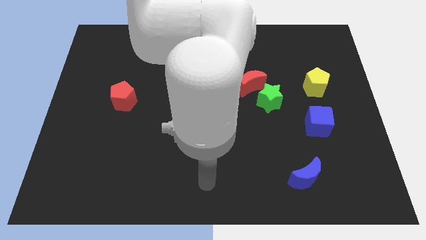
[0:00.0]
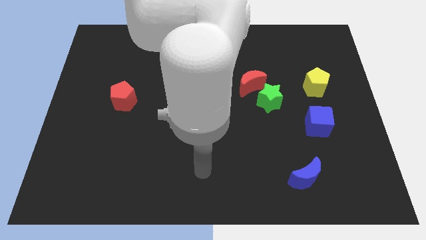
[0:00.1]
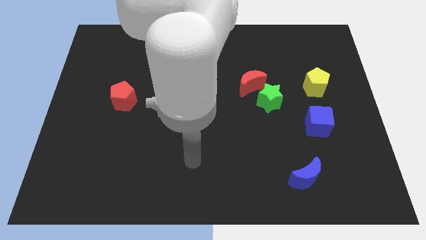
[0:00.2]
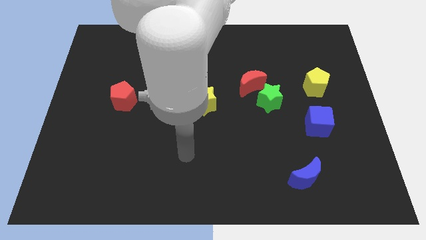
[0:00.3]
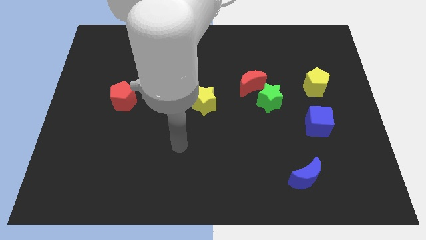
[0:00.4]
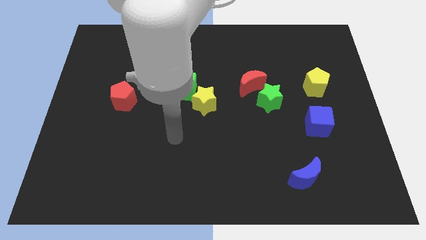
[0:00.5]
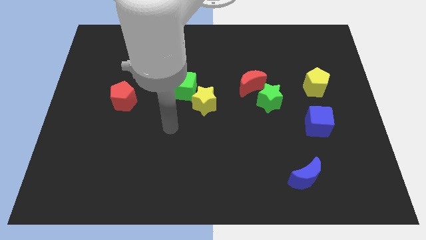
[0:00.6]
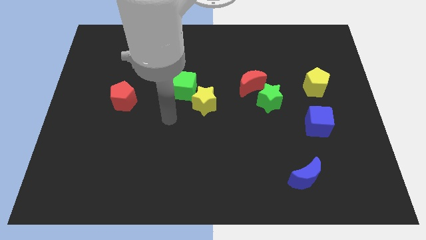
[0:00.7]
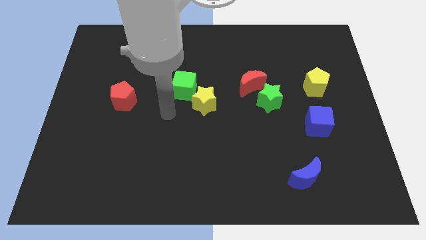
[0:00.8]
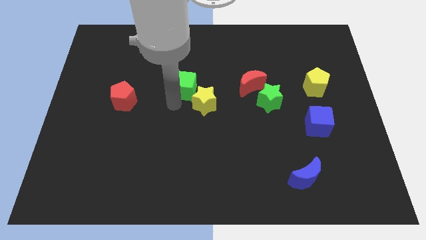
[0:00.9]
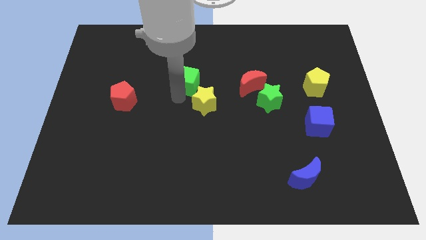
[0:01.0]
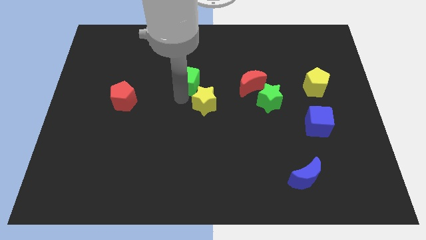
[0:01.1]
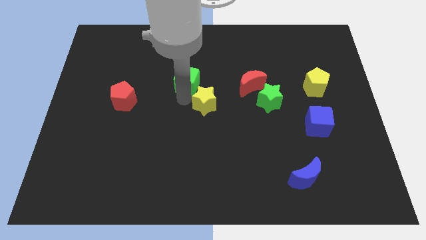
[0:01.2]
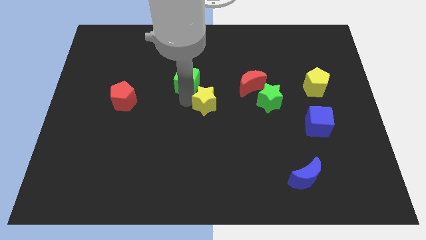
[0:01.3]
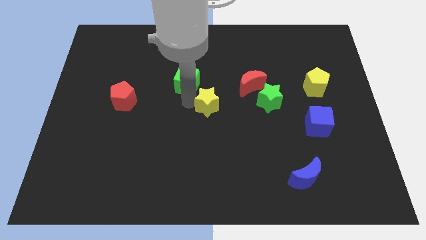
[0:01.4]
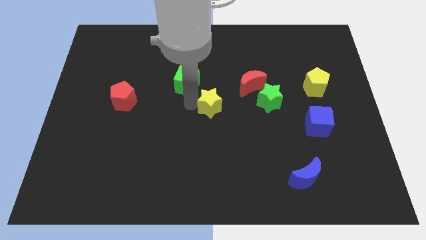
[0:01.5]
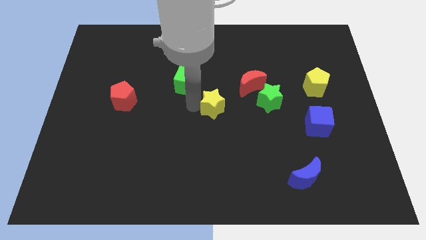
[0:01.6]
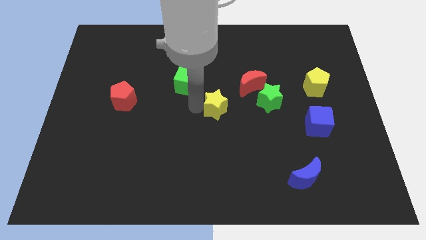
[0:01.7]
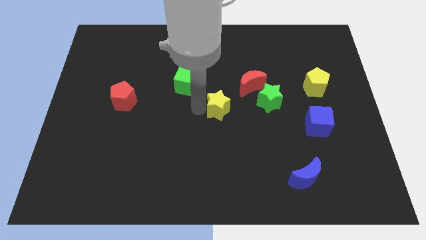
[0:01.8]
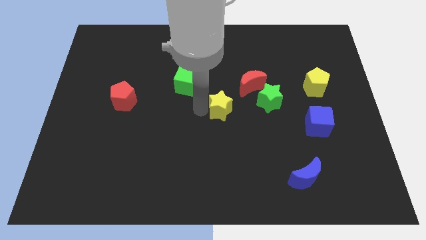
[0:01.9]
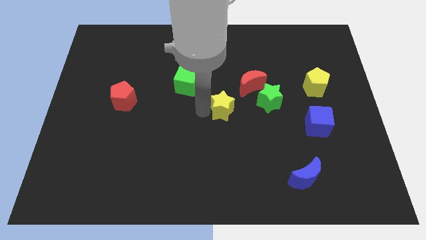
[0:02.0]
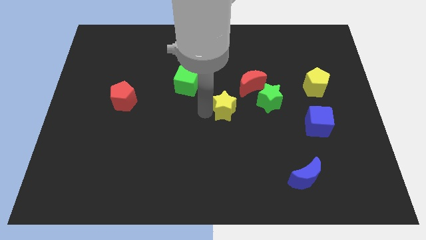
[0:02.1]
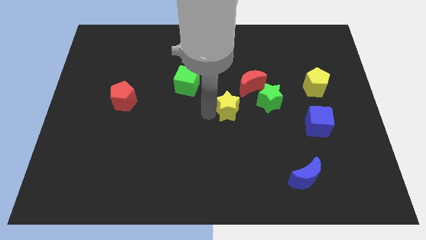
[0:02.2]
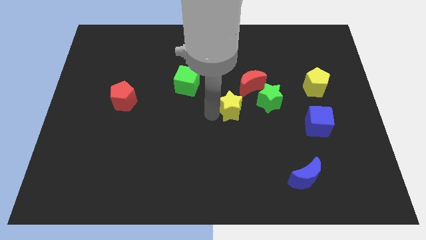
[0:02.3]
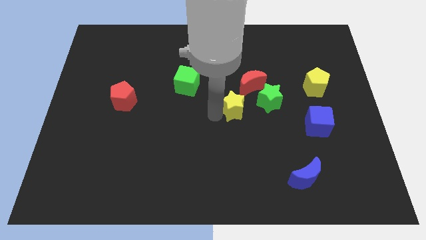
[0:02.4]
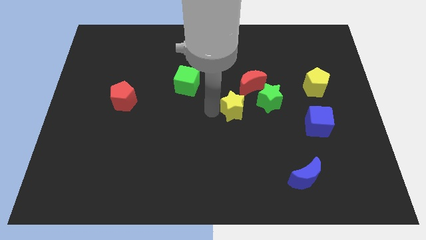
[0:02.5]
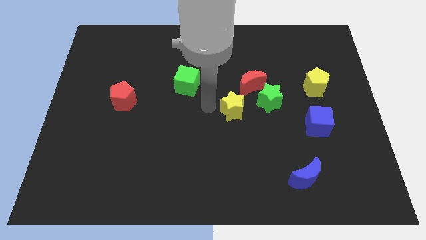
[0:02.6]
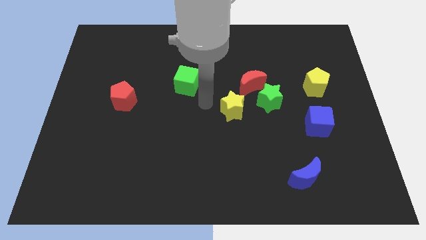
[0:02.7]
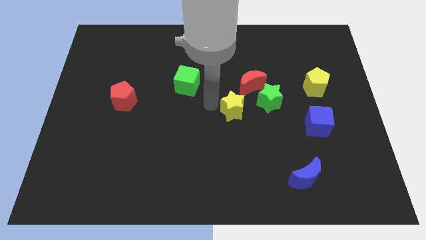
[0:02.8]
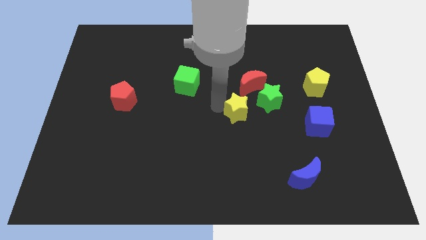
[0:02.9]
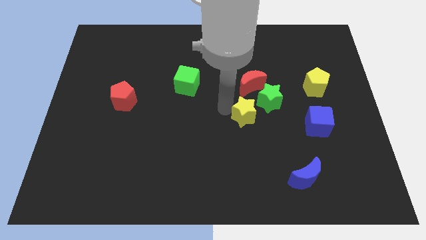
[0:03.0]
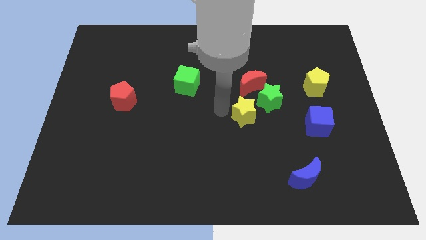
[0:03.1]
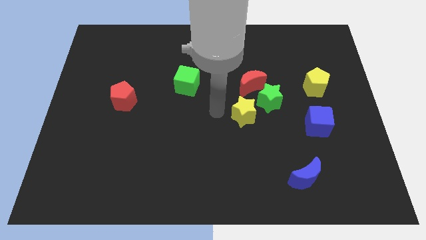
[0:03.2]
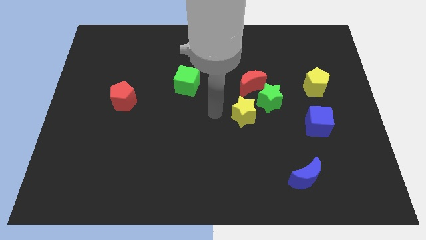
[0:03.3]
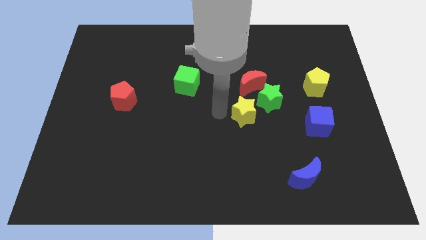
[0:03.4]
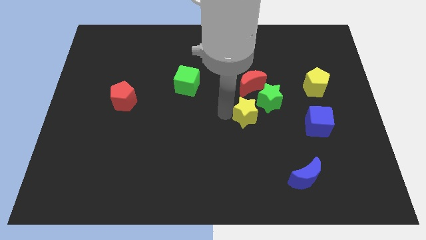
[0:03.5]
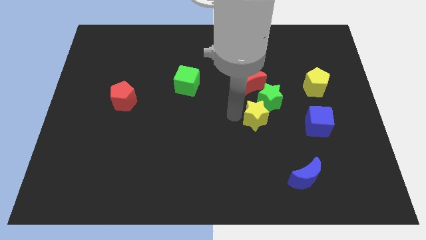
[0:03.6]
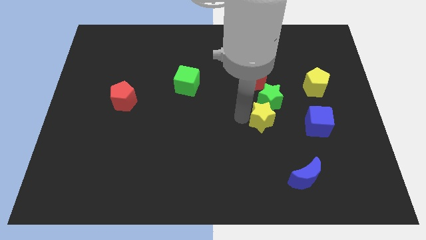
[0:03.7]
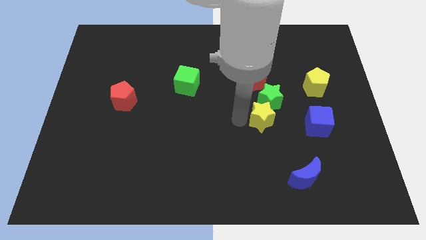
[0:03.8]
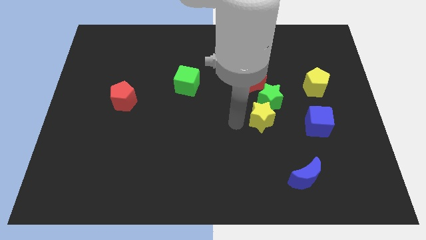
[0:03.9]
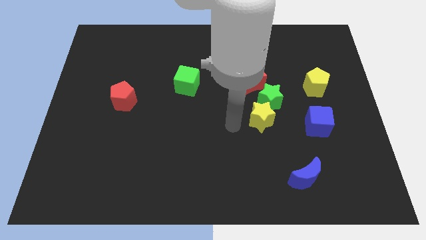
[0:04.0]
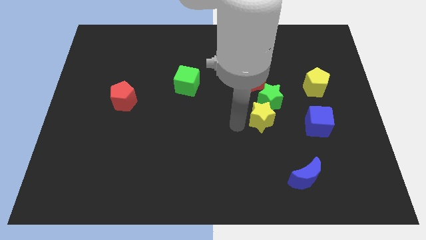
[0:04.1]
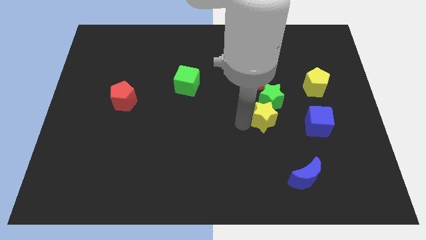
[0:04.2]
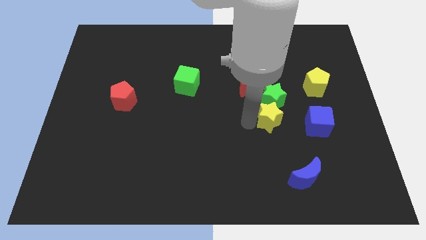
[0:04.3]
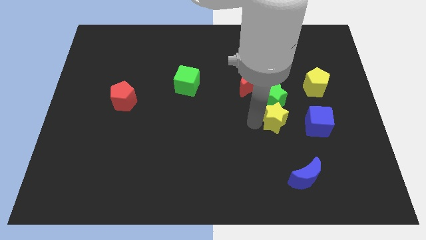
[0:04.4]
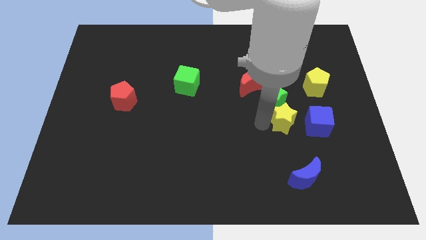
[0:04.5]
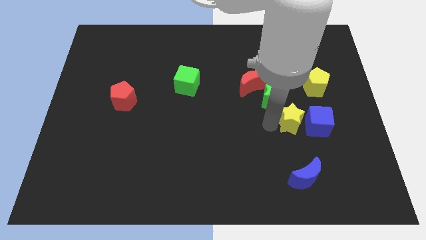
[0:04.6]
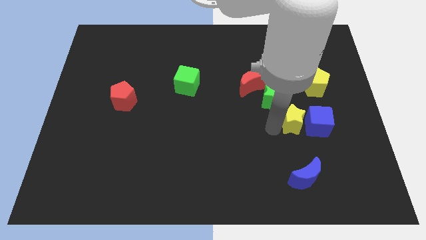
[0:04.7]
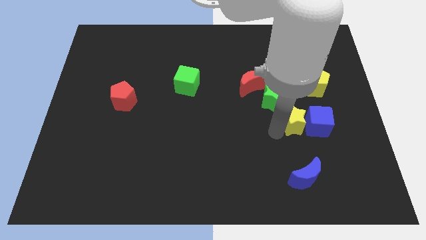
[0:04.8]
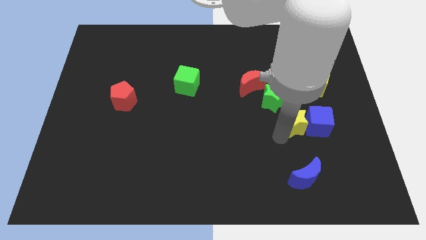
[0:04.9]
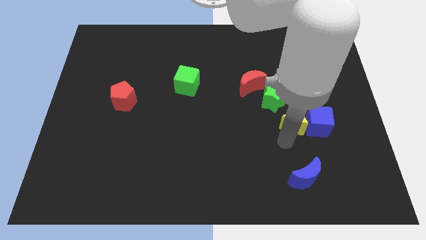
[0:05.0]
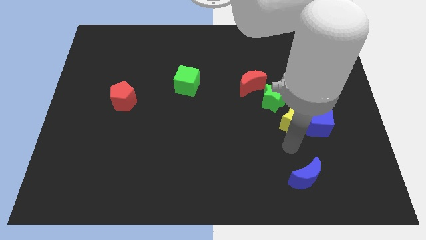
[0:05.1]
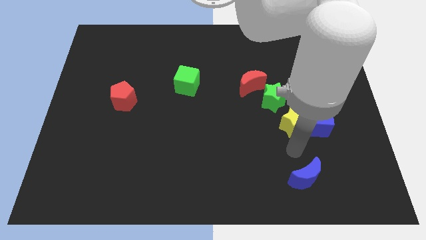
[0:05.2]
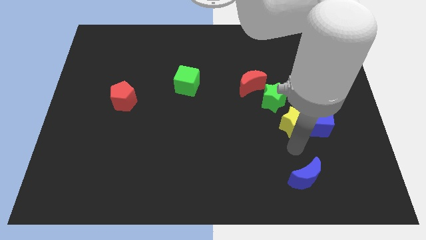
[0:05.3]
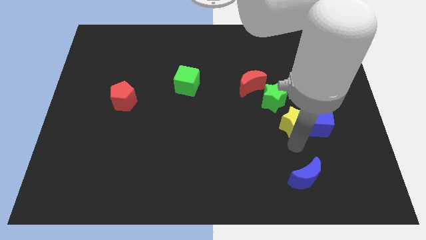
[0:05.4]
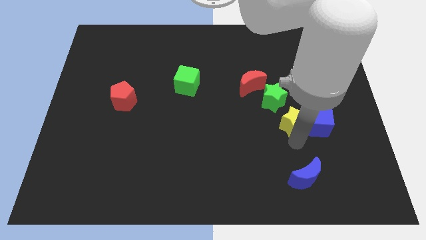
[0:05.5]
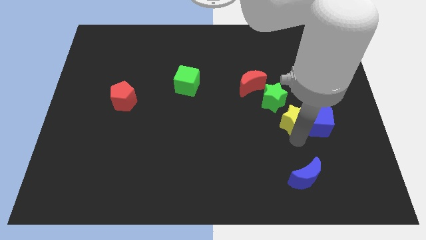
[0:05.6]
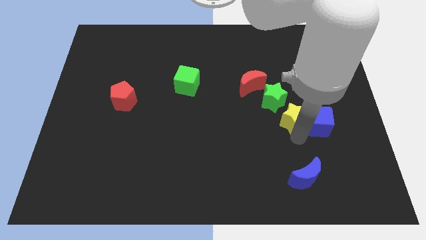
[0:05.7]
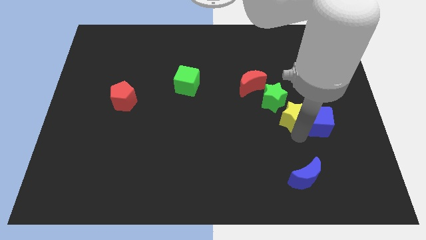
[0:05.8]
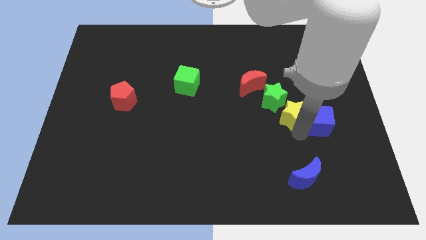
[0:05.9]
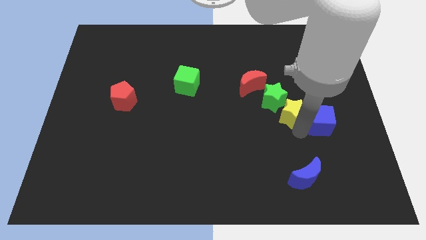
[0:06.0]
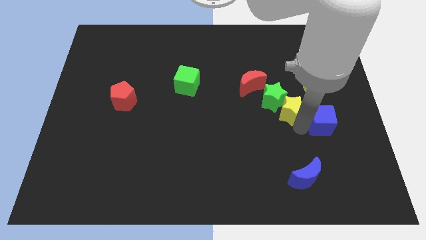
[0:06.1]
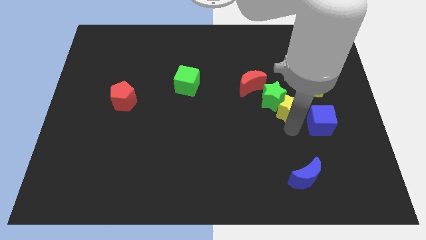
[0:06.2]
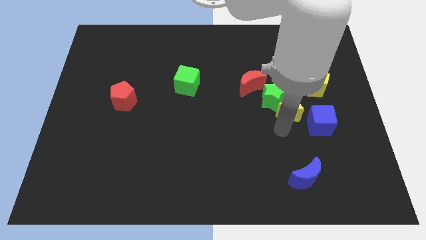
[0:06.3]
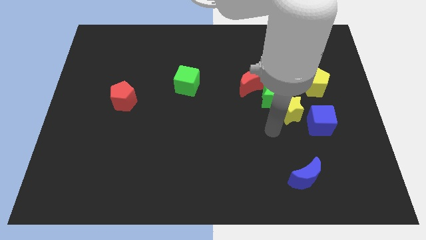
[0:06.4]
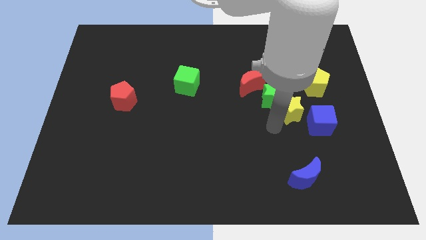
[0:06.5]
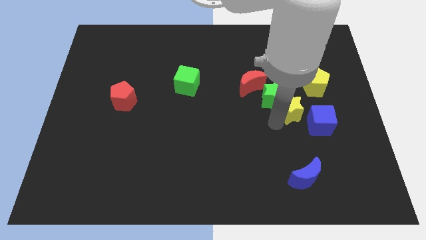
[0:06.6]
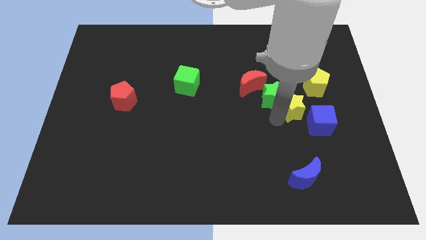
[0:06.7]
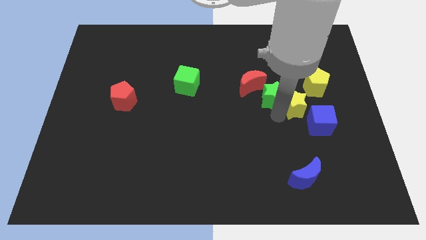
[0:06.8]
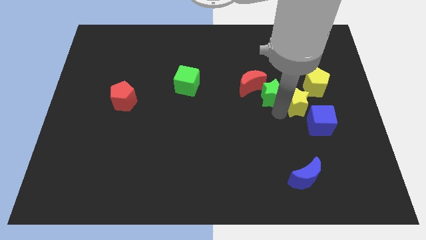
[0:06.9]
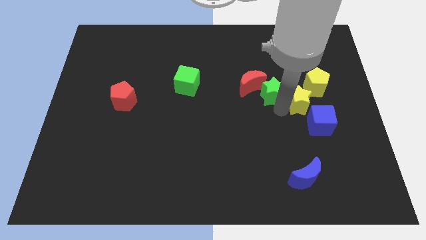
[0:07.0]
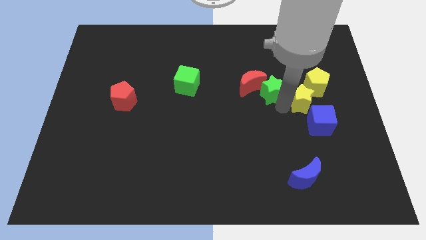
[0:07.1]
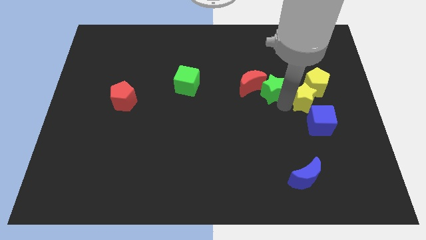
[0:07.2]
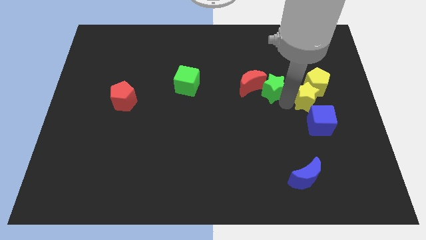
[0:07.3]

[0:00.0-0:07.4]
push the yellow star close to the yellow pentagon
